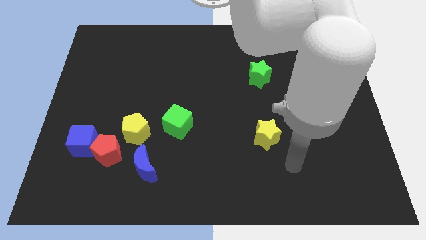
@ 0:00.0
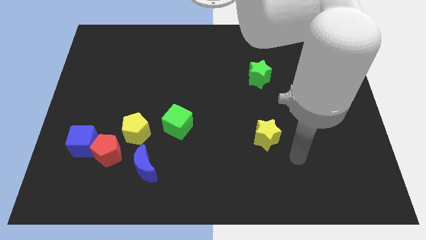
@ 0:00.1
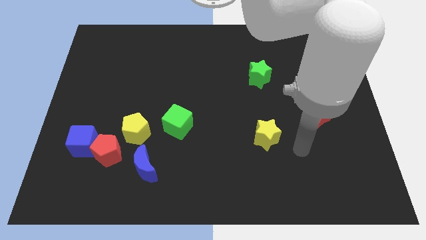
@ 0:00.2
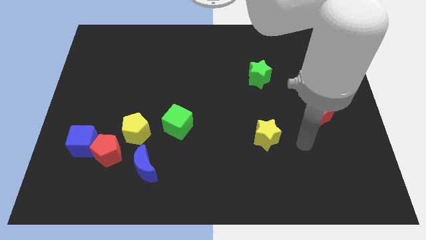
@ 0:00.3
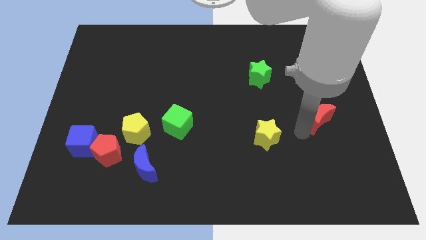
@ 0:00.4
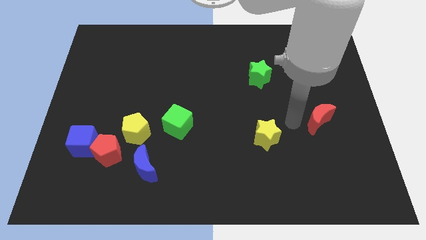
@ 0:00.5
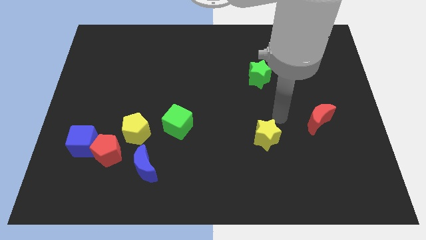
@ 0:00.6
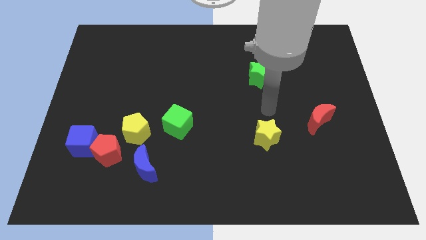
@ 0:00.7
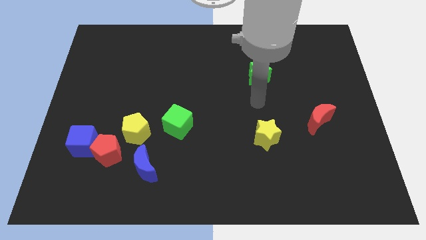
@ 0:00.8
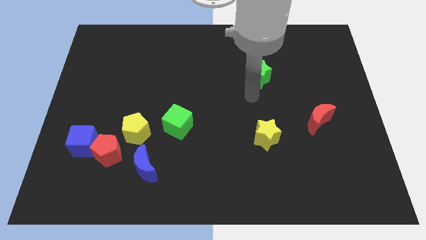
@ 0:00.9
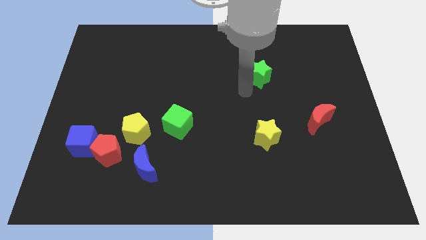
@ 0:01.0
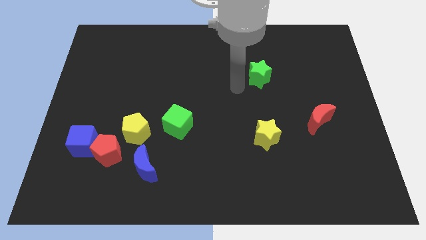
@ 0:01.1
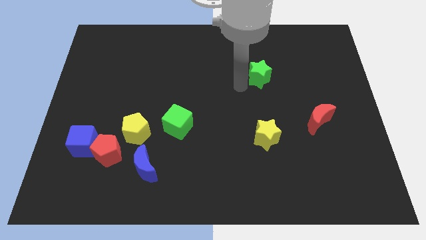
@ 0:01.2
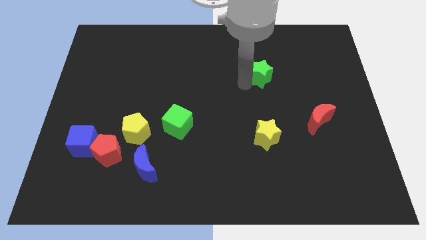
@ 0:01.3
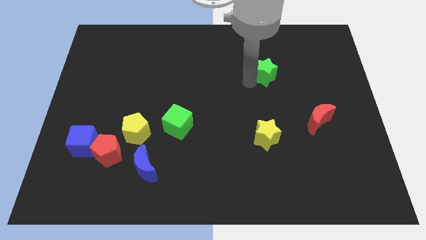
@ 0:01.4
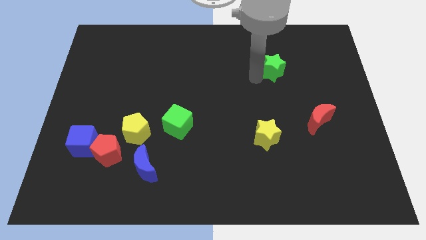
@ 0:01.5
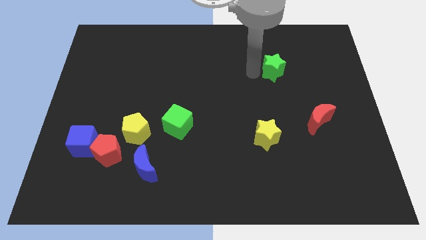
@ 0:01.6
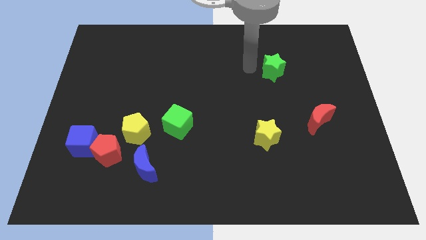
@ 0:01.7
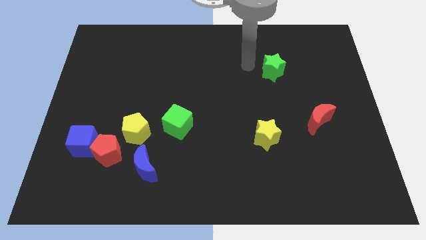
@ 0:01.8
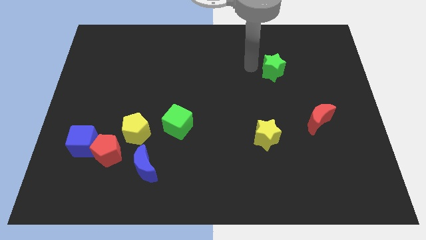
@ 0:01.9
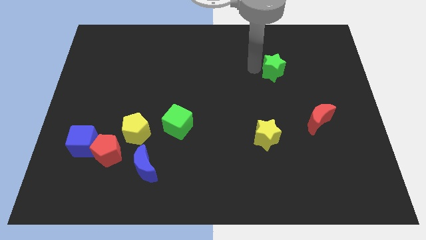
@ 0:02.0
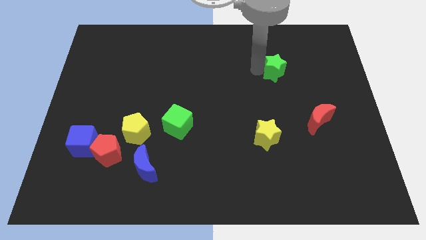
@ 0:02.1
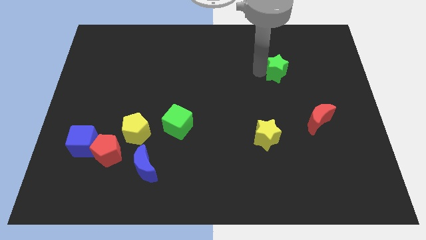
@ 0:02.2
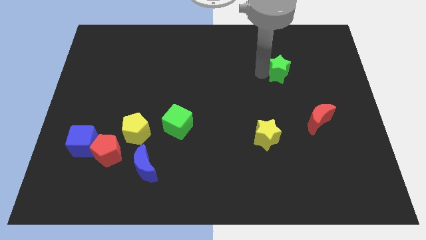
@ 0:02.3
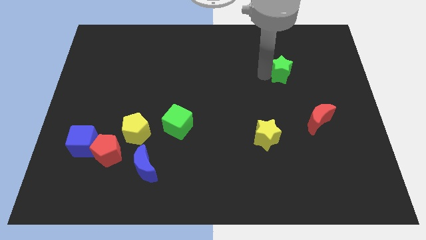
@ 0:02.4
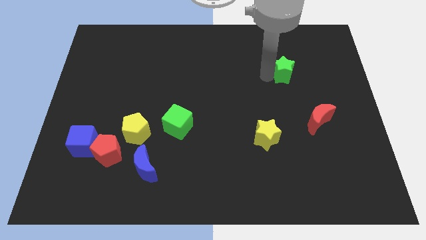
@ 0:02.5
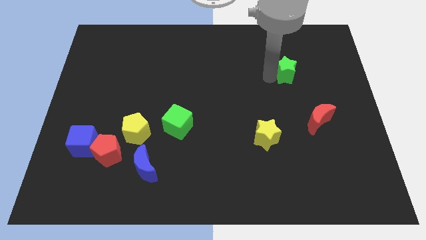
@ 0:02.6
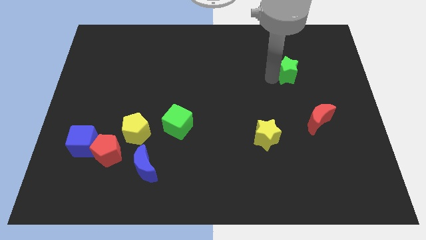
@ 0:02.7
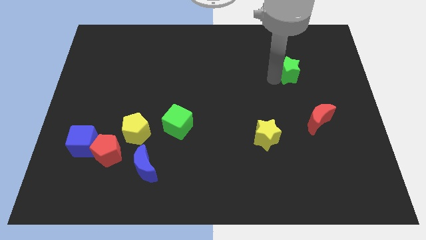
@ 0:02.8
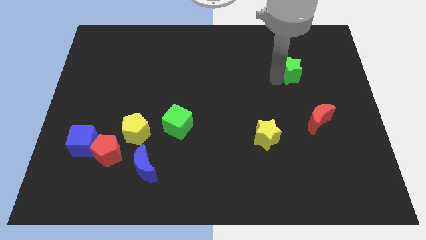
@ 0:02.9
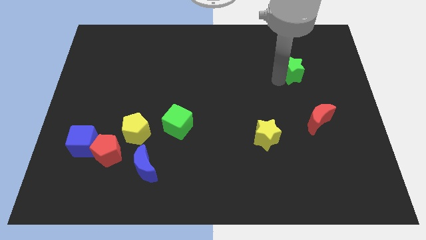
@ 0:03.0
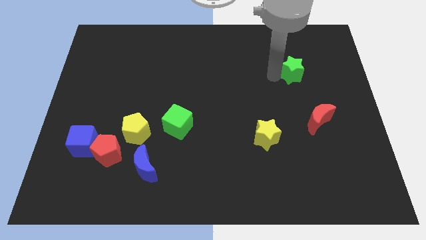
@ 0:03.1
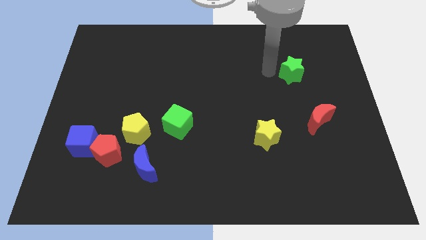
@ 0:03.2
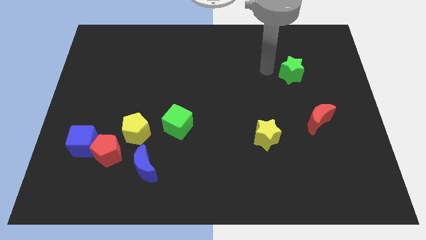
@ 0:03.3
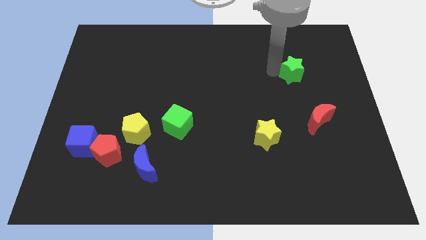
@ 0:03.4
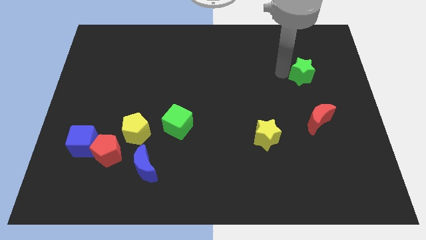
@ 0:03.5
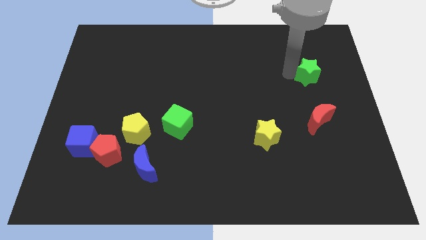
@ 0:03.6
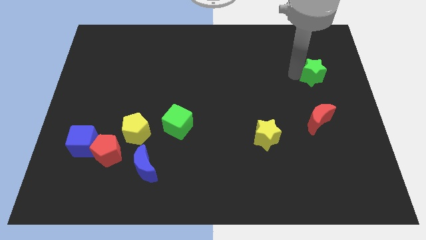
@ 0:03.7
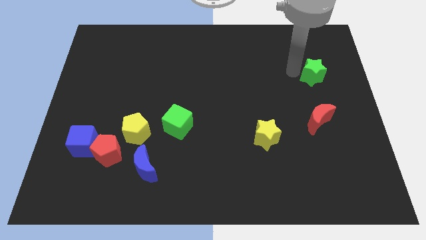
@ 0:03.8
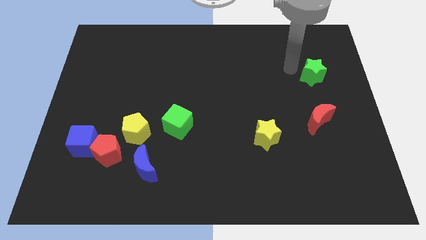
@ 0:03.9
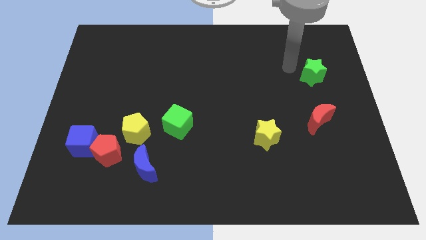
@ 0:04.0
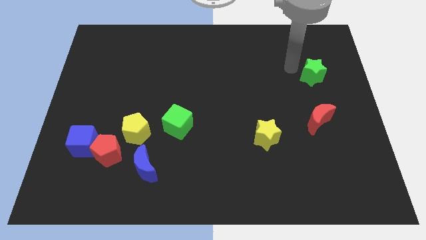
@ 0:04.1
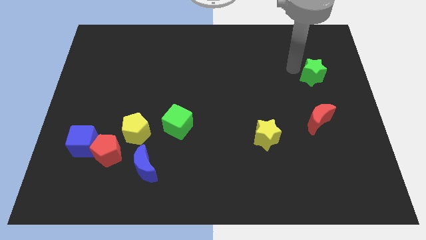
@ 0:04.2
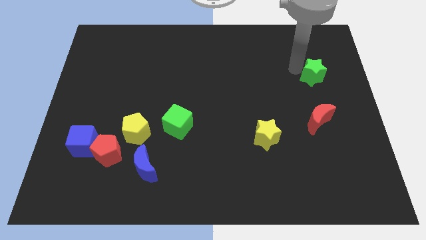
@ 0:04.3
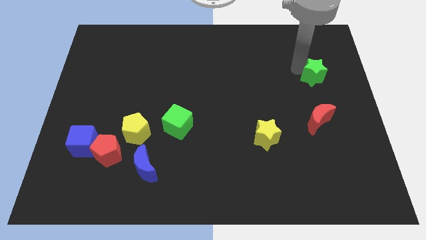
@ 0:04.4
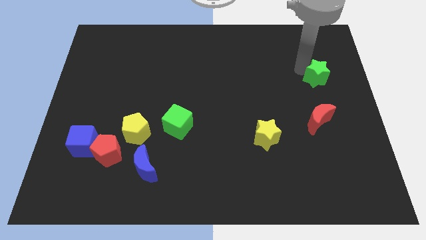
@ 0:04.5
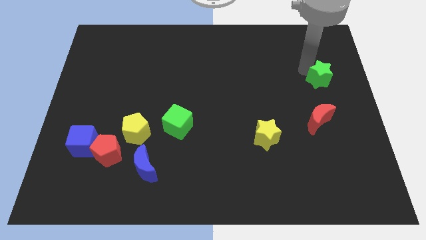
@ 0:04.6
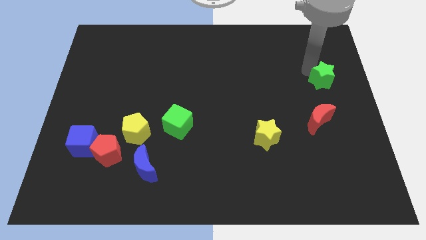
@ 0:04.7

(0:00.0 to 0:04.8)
move the green star to the right side of the board

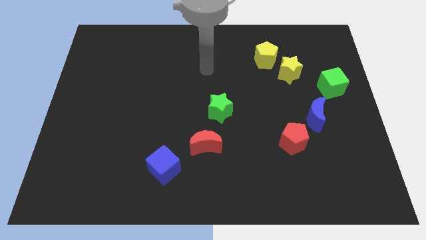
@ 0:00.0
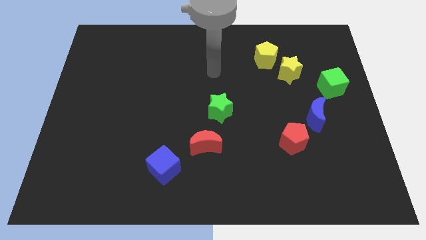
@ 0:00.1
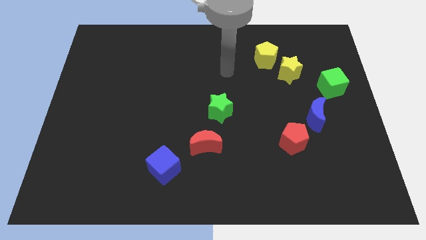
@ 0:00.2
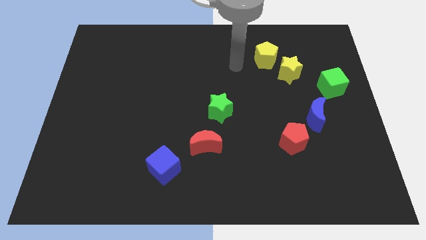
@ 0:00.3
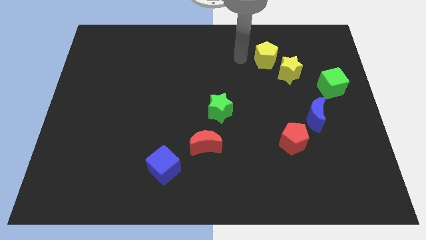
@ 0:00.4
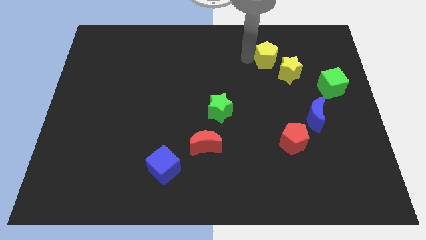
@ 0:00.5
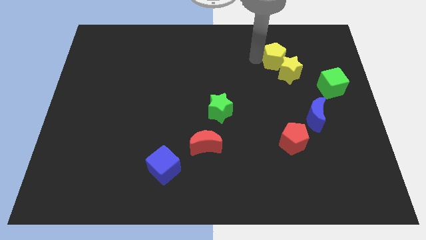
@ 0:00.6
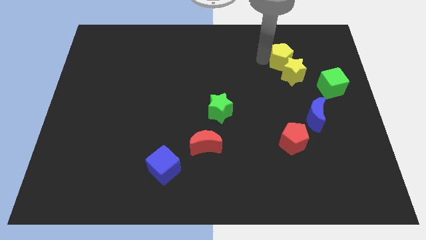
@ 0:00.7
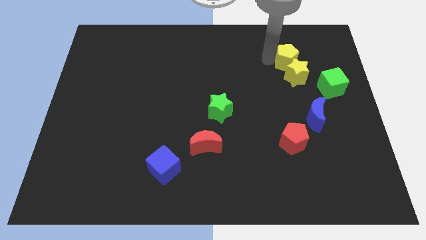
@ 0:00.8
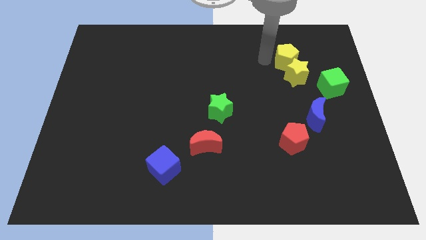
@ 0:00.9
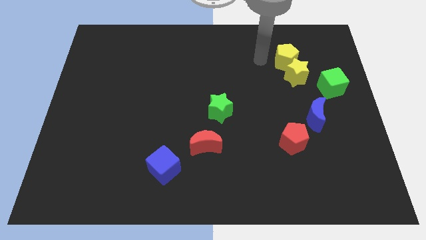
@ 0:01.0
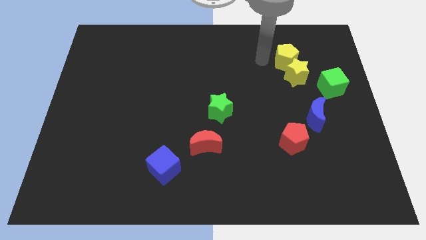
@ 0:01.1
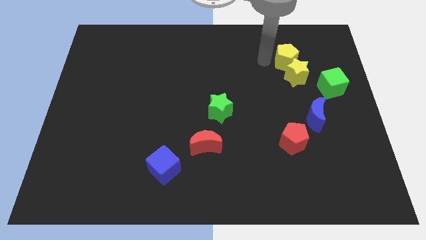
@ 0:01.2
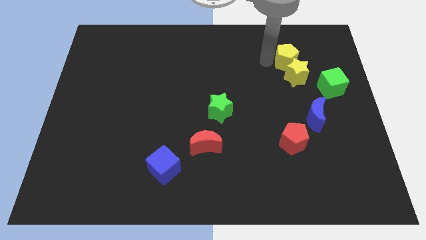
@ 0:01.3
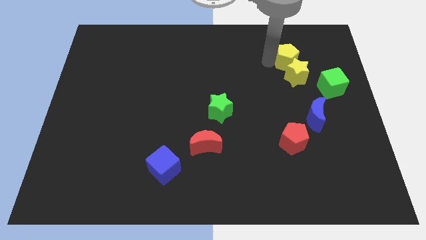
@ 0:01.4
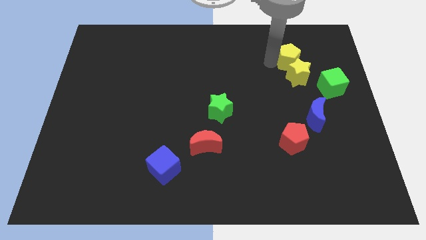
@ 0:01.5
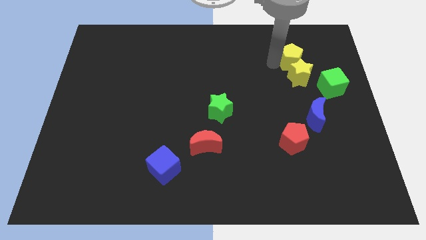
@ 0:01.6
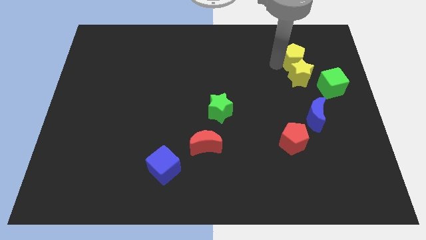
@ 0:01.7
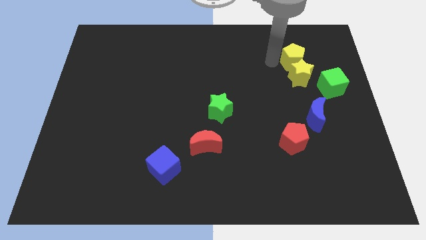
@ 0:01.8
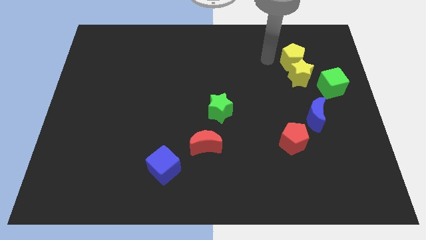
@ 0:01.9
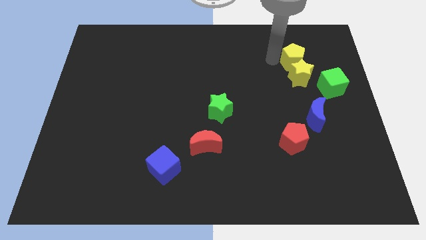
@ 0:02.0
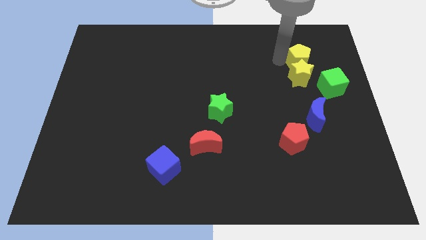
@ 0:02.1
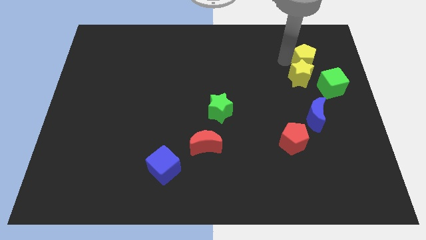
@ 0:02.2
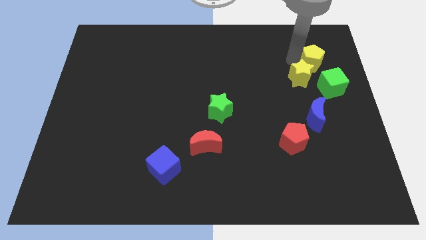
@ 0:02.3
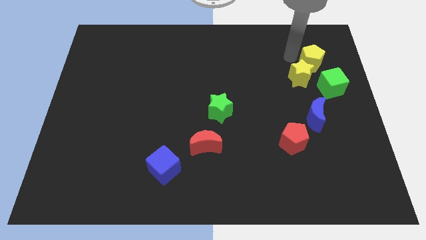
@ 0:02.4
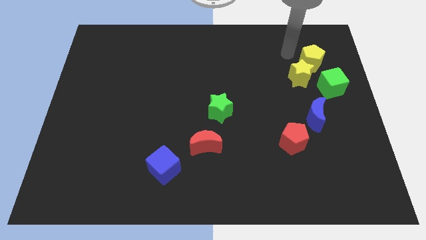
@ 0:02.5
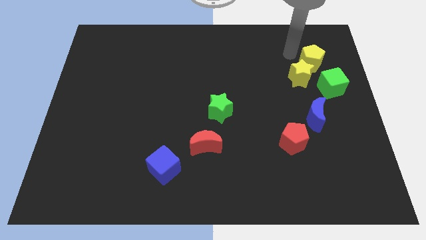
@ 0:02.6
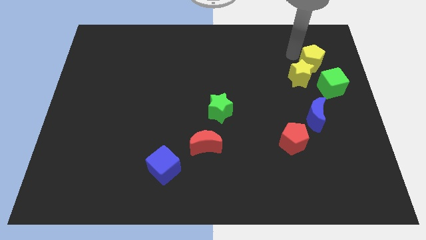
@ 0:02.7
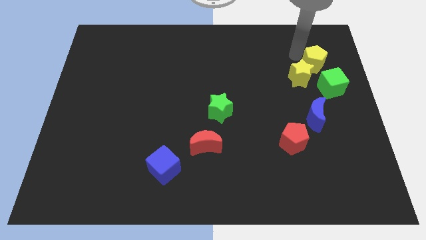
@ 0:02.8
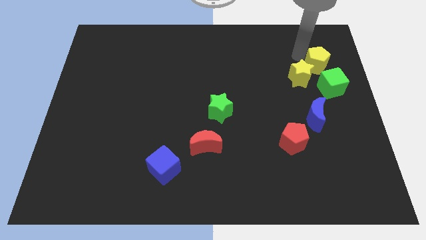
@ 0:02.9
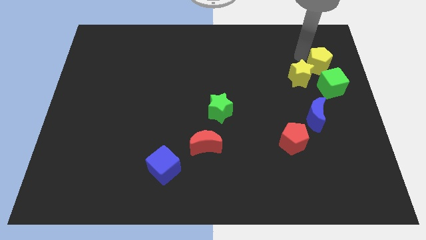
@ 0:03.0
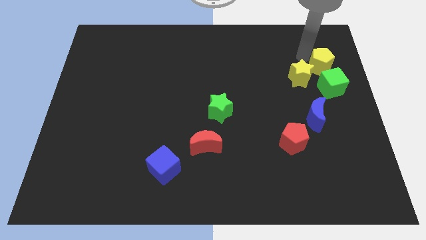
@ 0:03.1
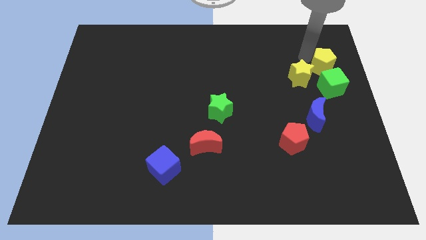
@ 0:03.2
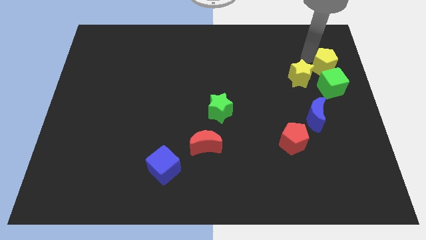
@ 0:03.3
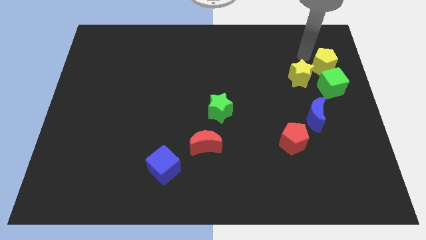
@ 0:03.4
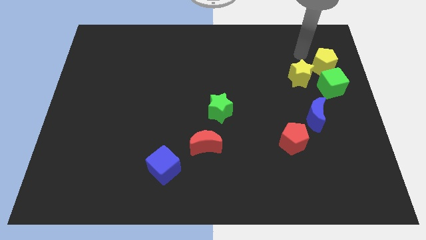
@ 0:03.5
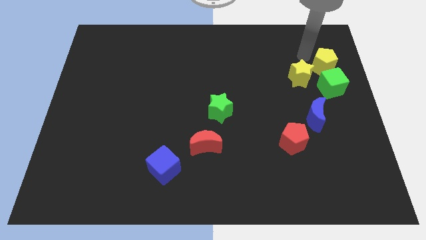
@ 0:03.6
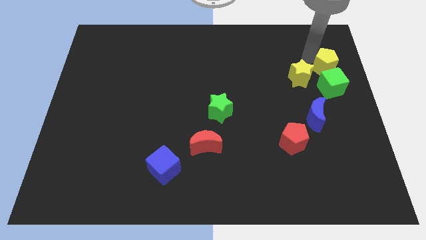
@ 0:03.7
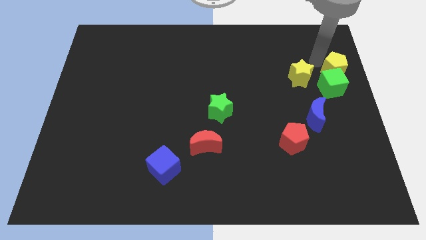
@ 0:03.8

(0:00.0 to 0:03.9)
put the yellow pentagon to the center right
